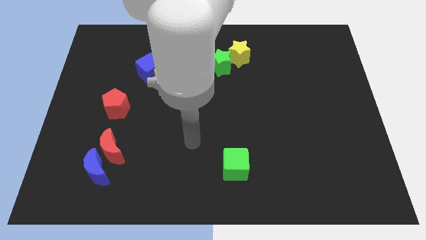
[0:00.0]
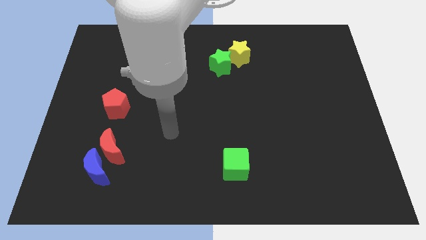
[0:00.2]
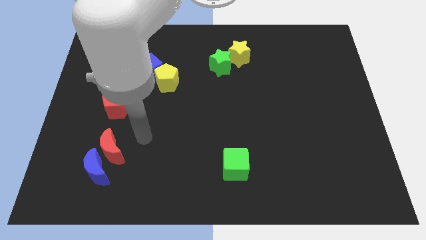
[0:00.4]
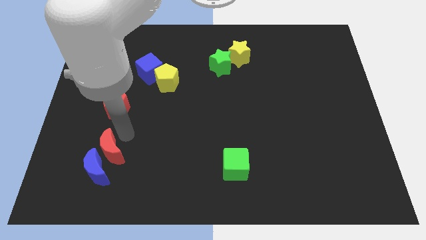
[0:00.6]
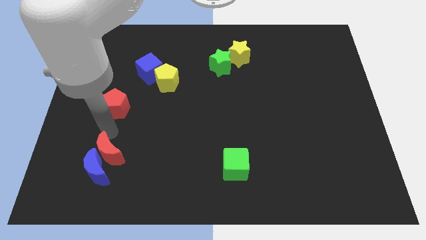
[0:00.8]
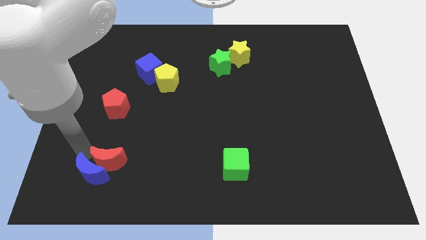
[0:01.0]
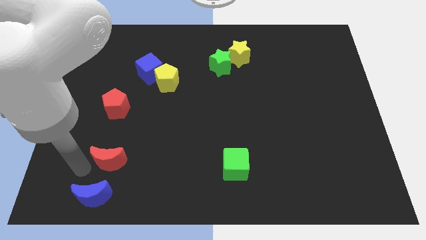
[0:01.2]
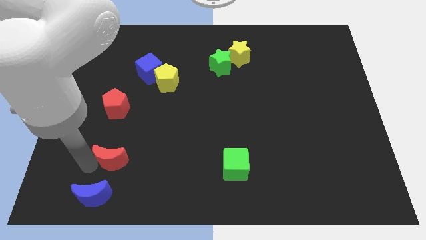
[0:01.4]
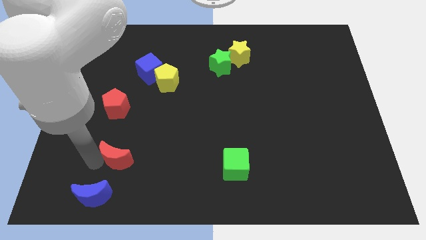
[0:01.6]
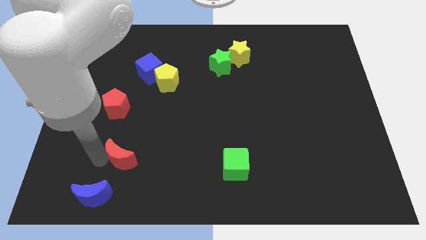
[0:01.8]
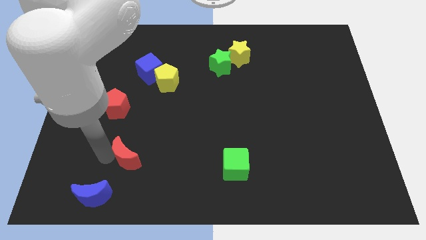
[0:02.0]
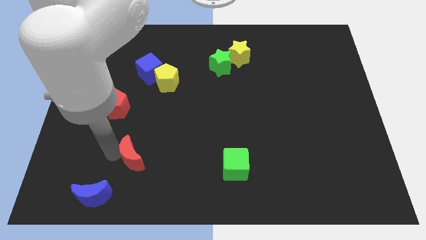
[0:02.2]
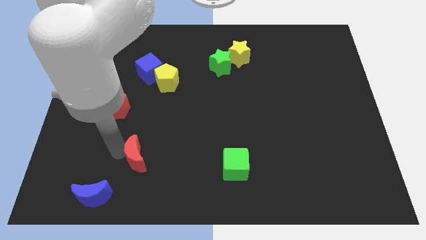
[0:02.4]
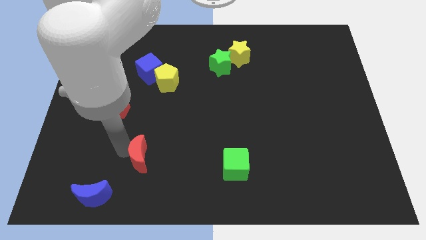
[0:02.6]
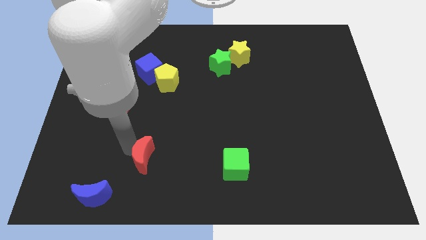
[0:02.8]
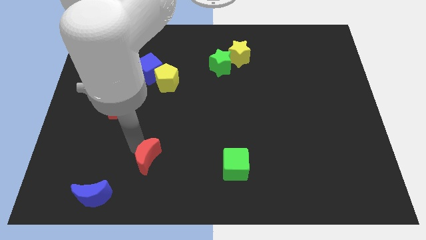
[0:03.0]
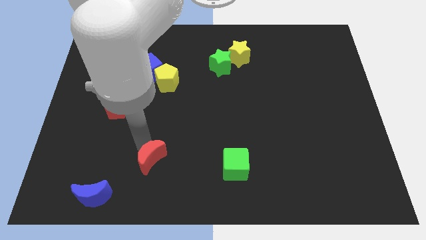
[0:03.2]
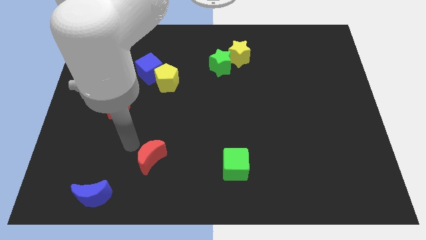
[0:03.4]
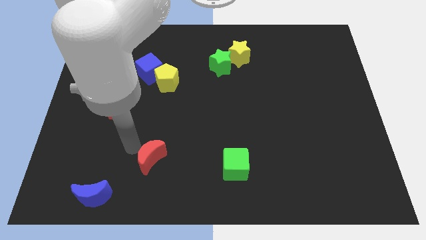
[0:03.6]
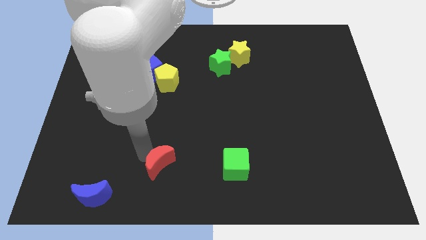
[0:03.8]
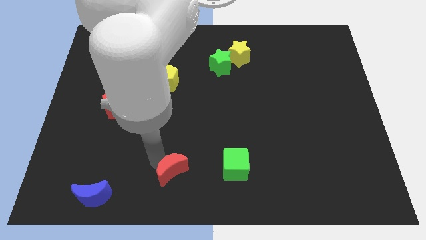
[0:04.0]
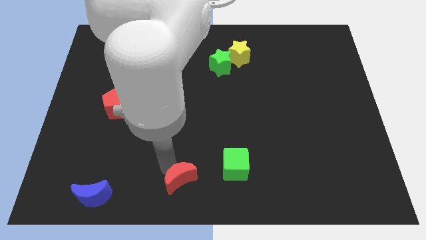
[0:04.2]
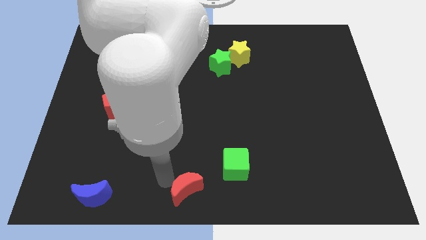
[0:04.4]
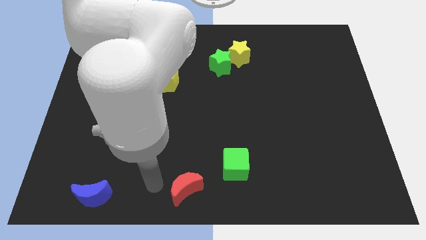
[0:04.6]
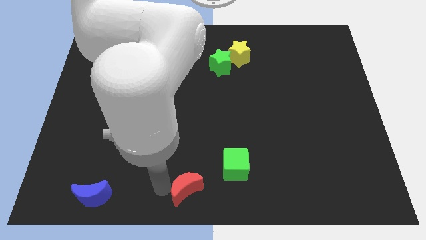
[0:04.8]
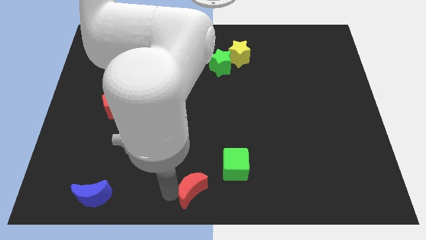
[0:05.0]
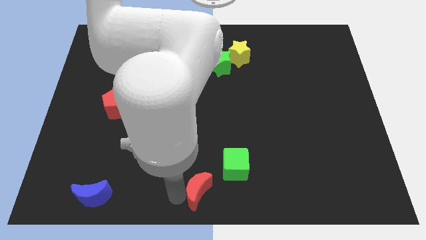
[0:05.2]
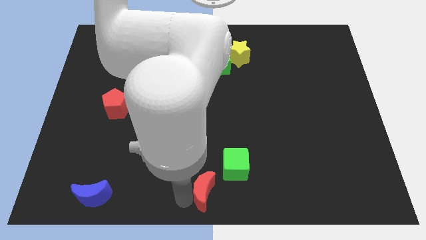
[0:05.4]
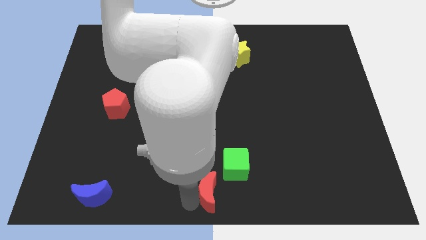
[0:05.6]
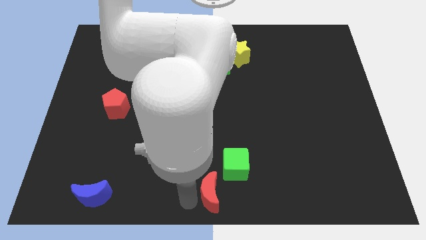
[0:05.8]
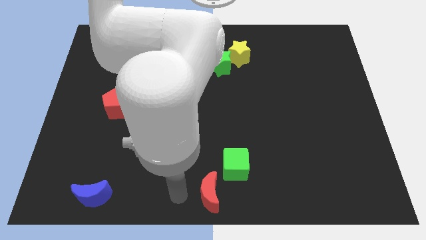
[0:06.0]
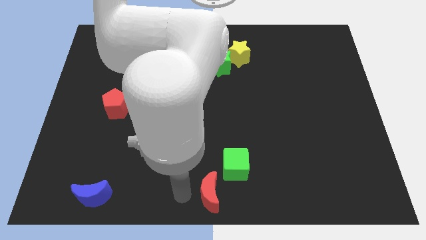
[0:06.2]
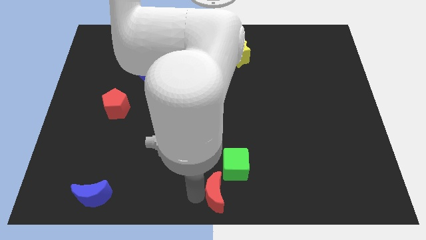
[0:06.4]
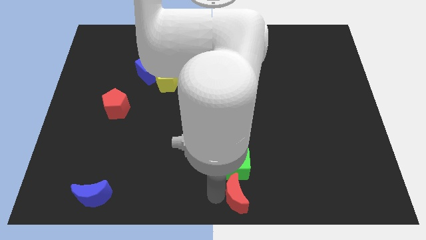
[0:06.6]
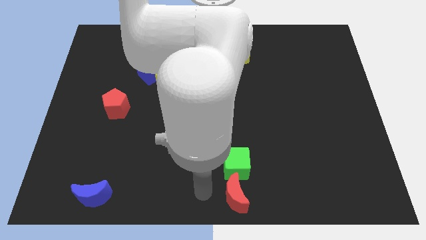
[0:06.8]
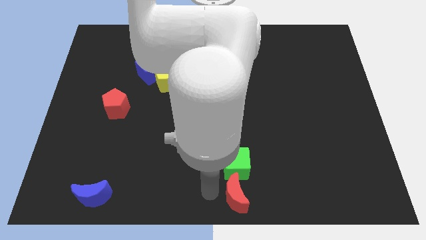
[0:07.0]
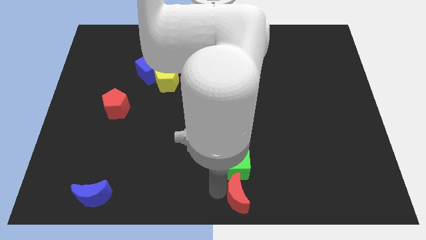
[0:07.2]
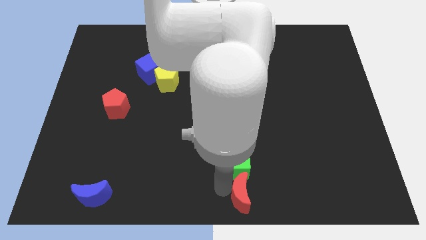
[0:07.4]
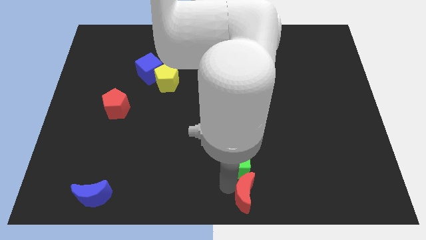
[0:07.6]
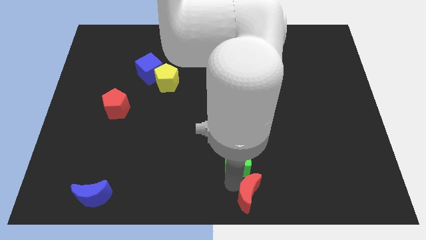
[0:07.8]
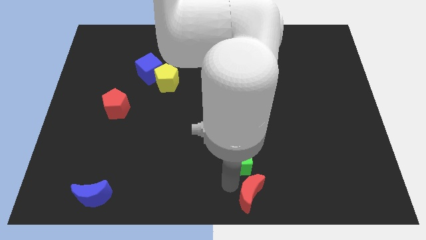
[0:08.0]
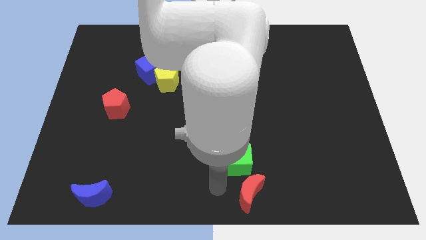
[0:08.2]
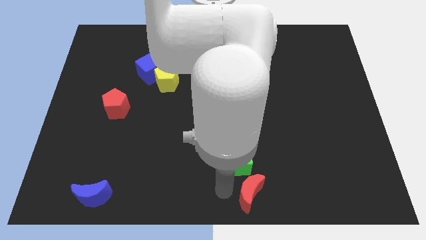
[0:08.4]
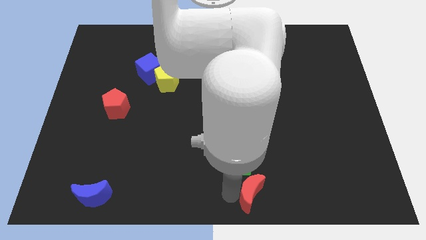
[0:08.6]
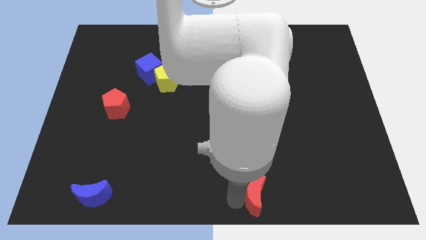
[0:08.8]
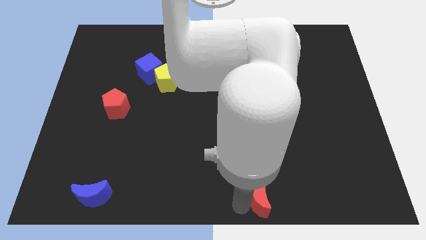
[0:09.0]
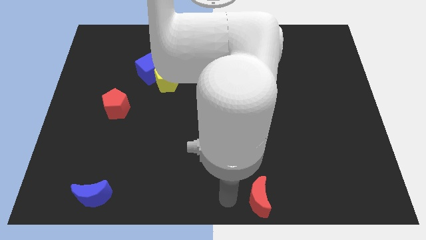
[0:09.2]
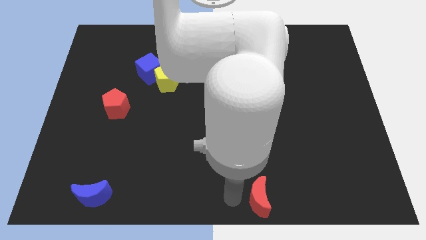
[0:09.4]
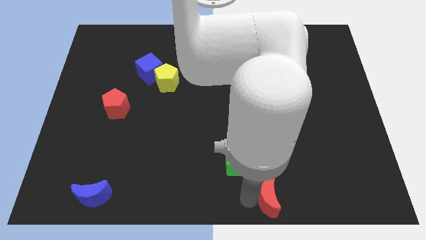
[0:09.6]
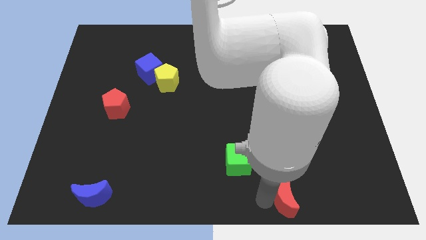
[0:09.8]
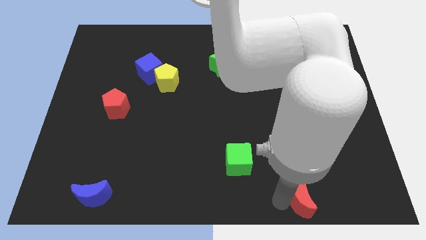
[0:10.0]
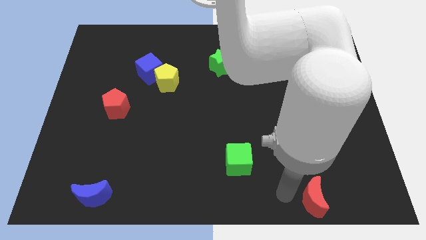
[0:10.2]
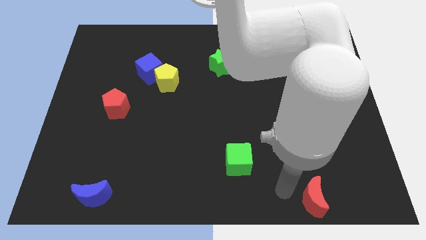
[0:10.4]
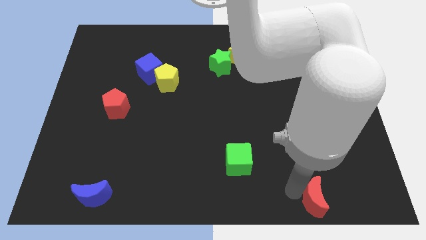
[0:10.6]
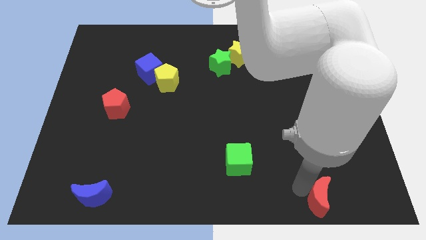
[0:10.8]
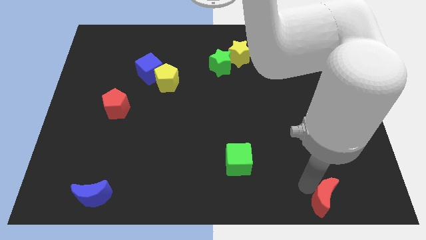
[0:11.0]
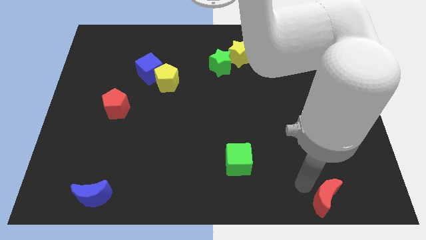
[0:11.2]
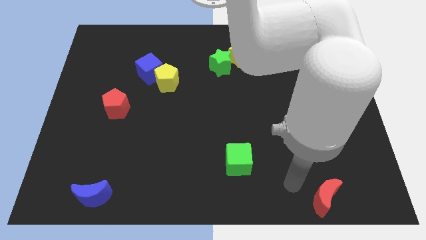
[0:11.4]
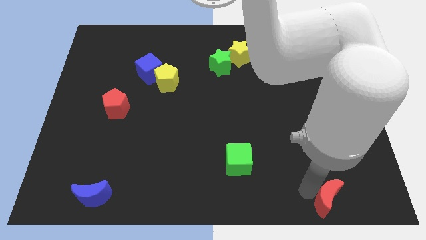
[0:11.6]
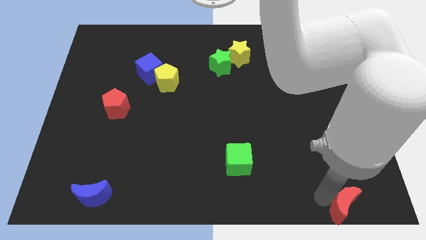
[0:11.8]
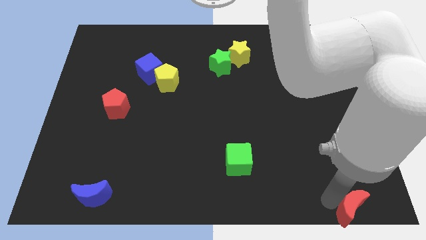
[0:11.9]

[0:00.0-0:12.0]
move the red moon to the lower right corner
